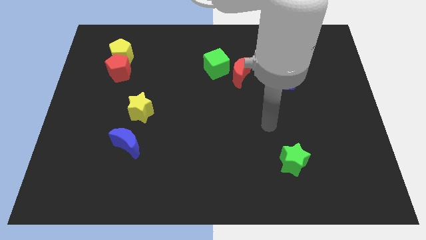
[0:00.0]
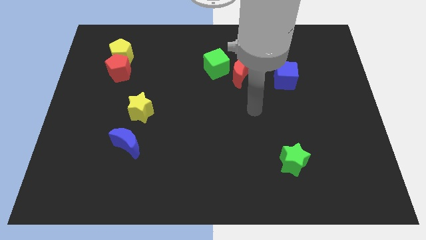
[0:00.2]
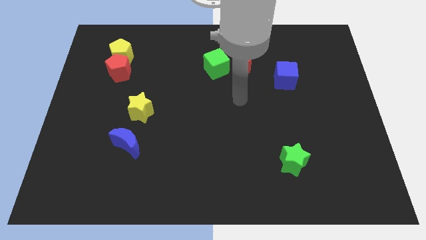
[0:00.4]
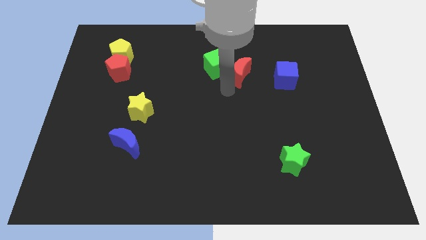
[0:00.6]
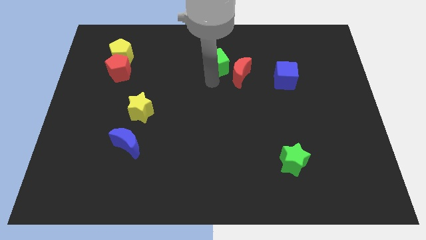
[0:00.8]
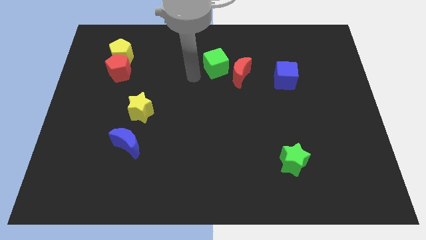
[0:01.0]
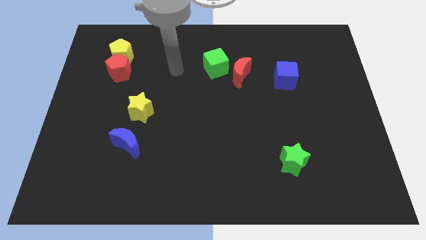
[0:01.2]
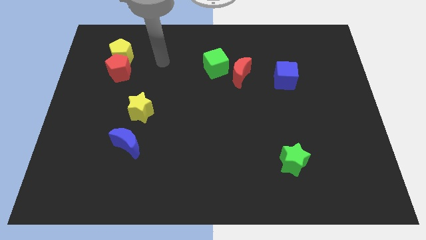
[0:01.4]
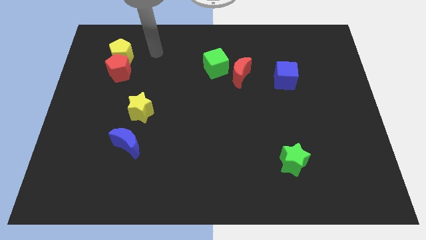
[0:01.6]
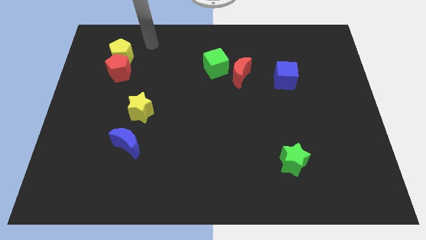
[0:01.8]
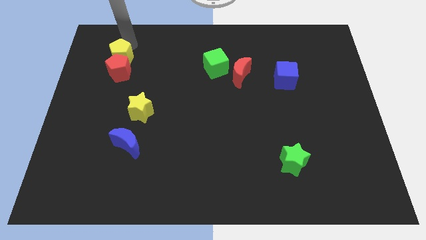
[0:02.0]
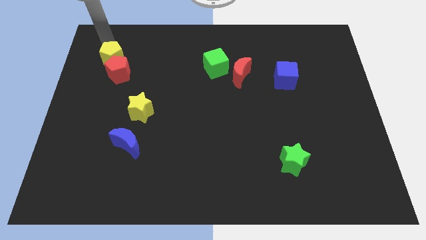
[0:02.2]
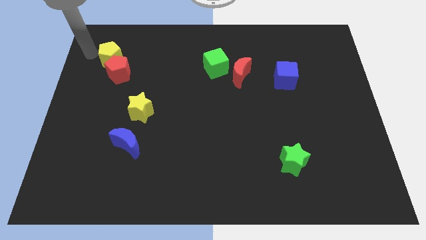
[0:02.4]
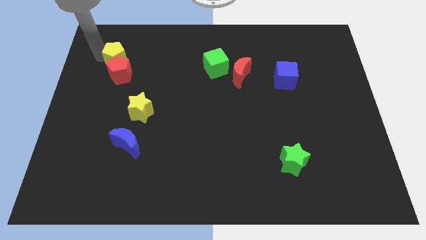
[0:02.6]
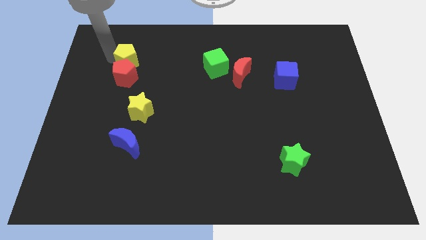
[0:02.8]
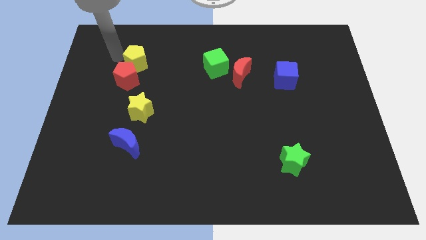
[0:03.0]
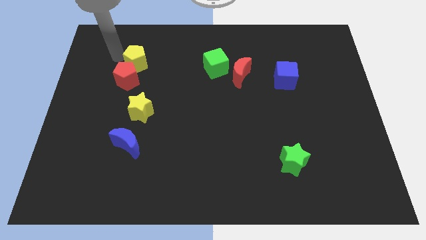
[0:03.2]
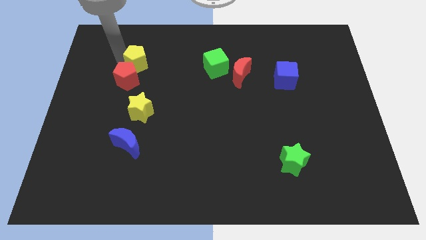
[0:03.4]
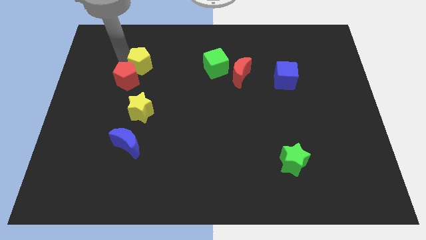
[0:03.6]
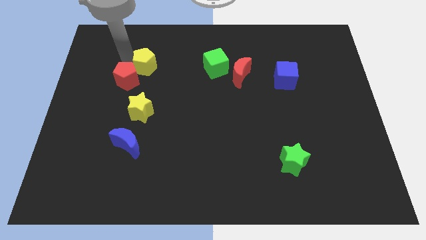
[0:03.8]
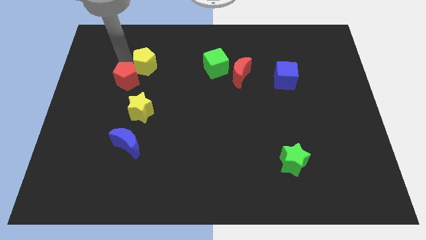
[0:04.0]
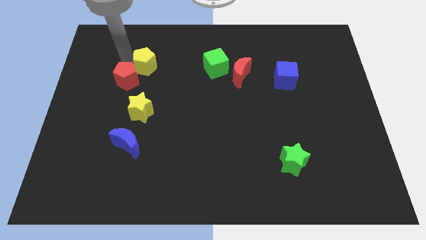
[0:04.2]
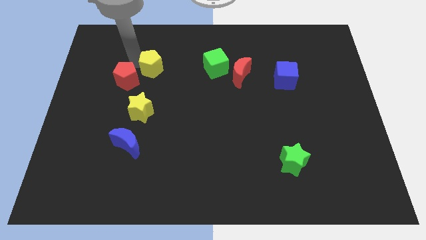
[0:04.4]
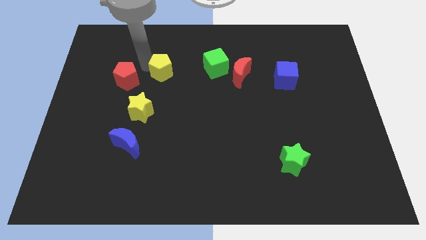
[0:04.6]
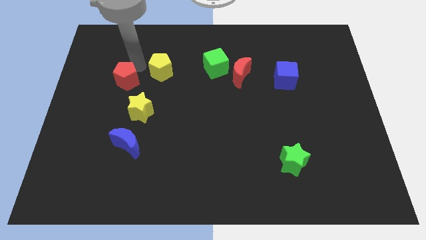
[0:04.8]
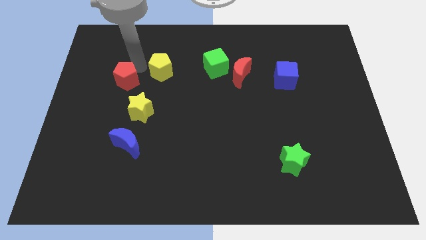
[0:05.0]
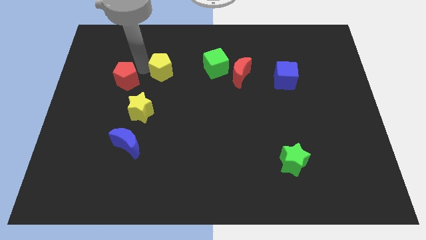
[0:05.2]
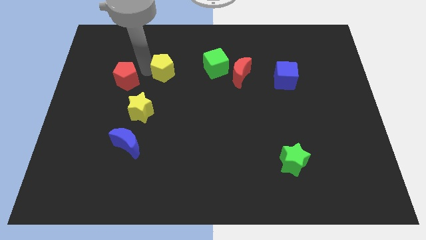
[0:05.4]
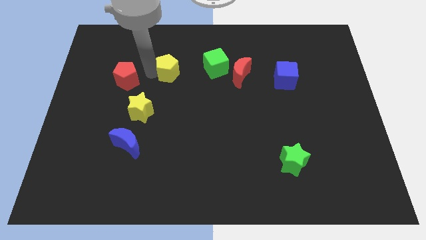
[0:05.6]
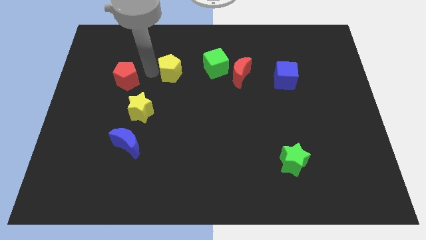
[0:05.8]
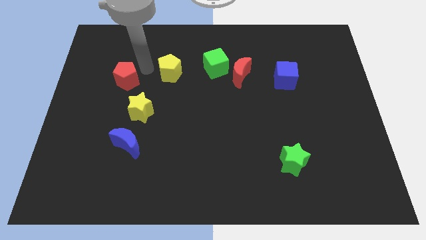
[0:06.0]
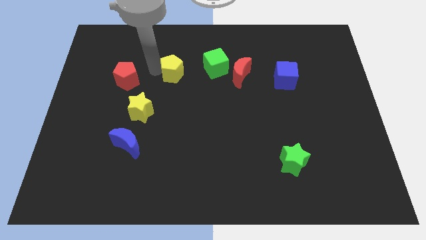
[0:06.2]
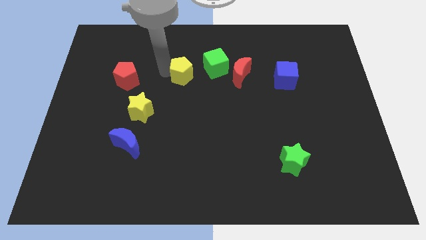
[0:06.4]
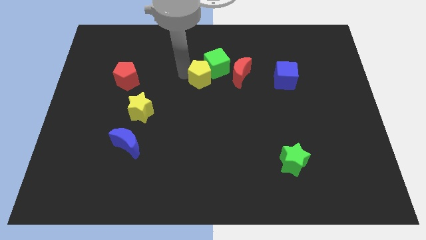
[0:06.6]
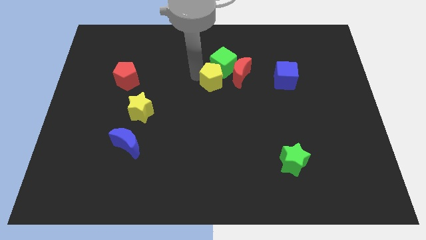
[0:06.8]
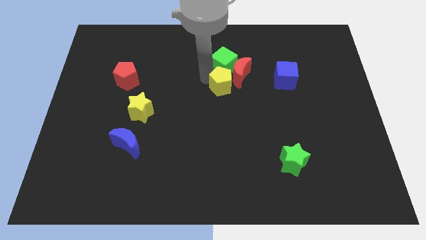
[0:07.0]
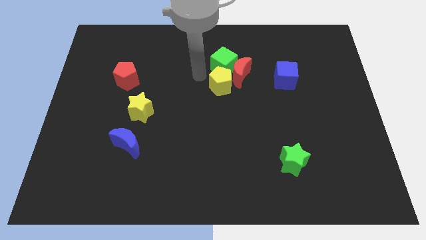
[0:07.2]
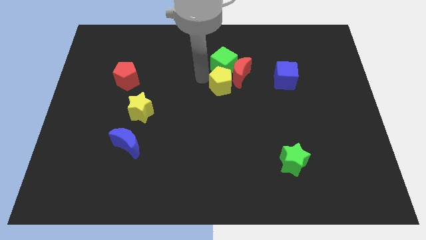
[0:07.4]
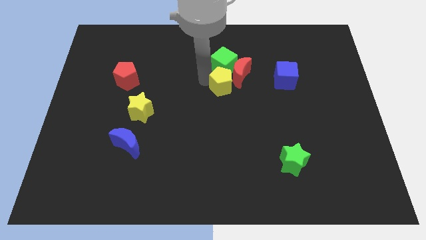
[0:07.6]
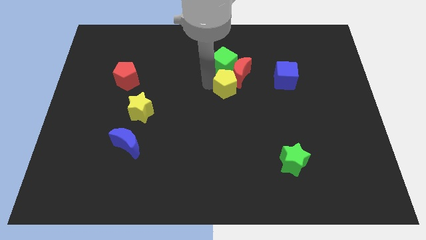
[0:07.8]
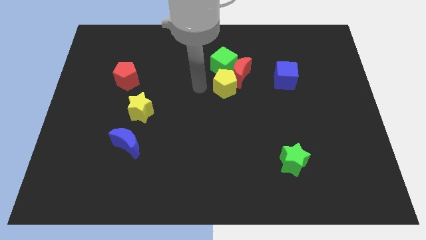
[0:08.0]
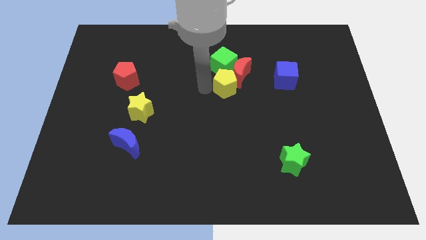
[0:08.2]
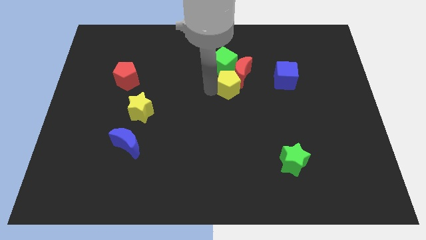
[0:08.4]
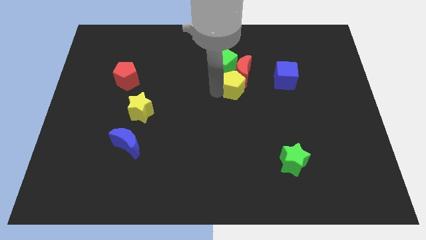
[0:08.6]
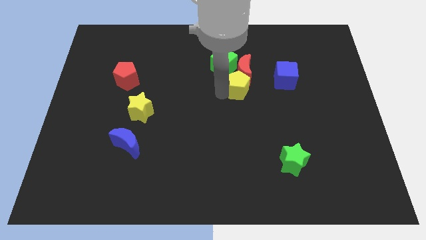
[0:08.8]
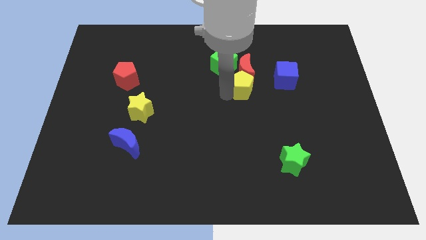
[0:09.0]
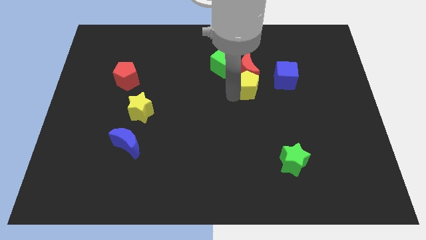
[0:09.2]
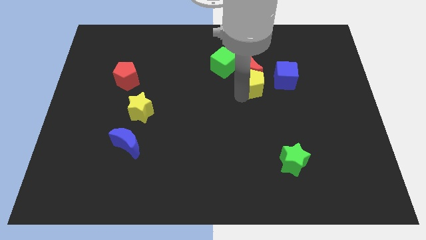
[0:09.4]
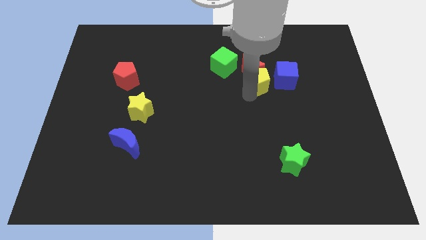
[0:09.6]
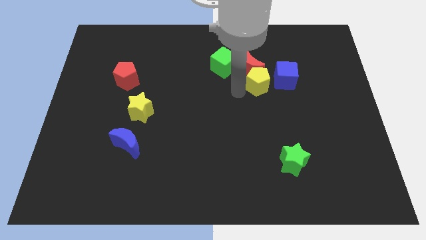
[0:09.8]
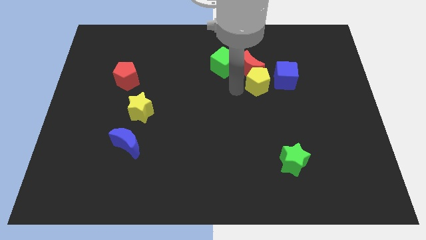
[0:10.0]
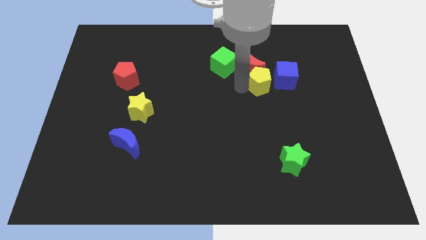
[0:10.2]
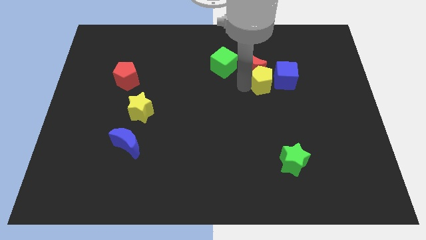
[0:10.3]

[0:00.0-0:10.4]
move the yellow pentagon close to the blue cube

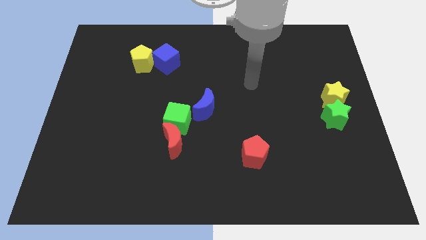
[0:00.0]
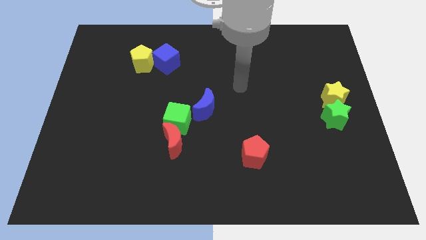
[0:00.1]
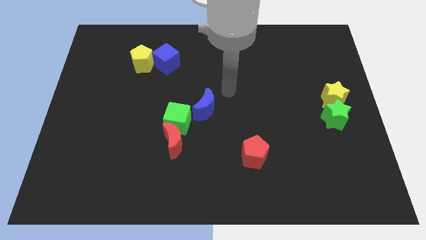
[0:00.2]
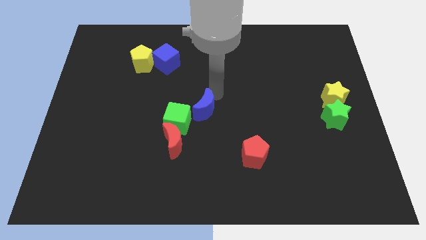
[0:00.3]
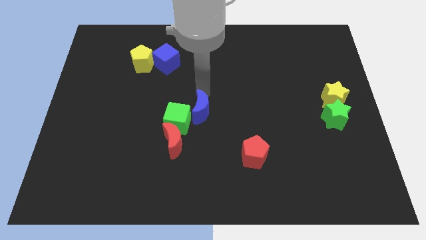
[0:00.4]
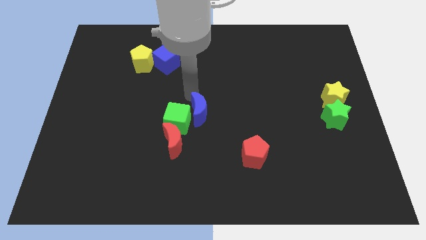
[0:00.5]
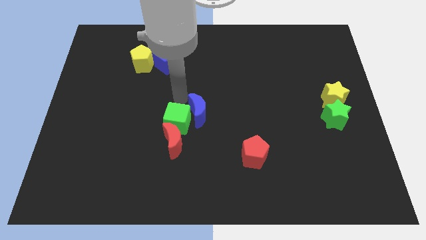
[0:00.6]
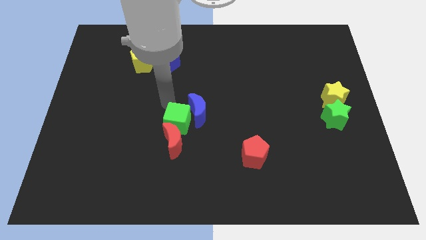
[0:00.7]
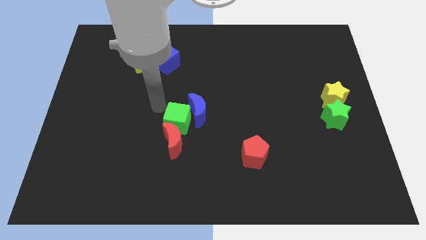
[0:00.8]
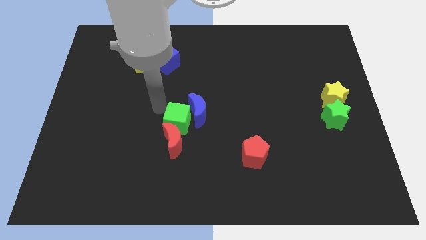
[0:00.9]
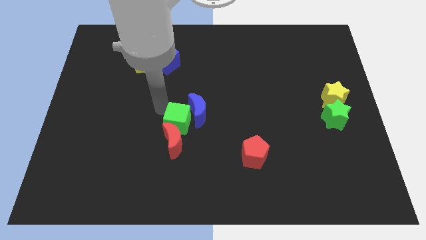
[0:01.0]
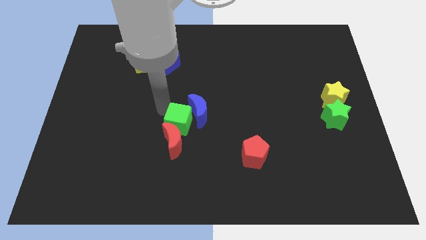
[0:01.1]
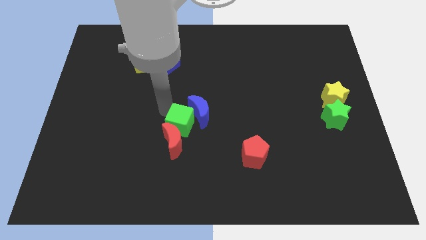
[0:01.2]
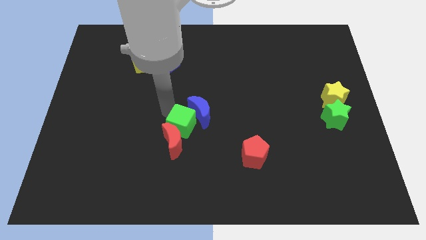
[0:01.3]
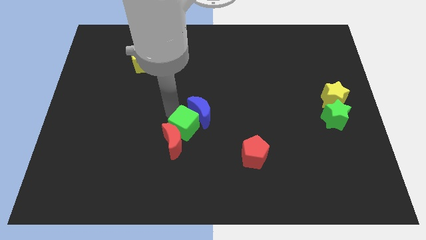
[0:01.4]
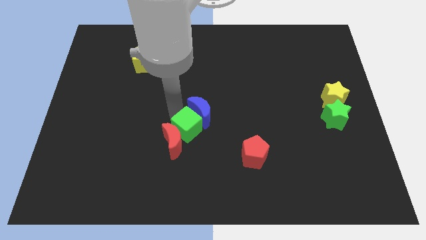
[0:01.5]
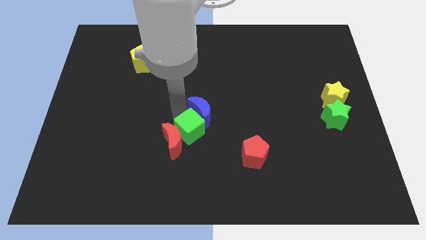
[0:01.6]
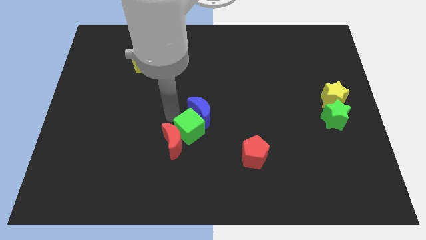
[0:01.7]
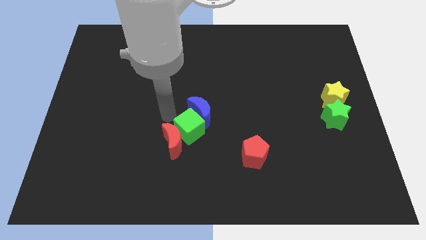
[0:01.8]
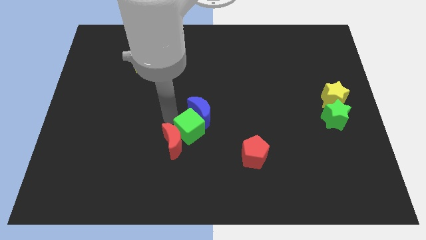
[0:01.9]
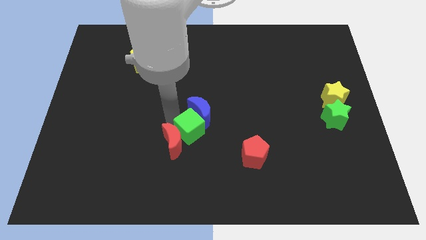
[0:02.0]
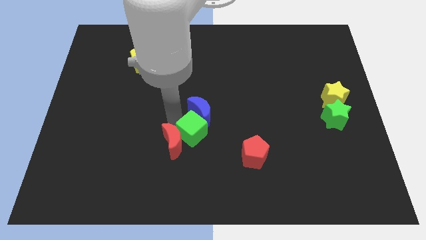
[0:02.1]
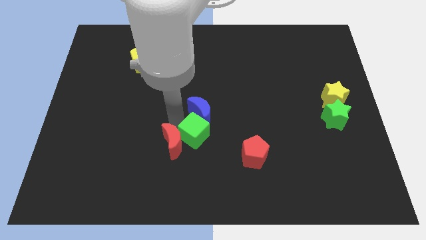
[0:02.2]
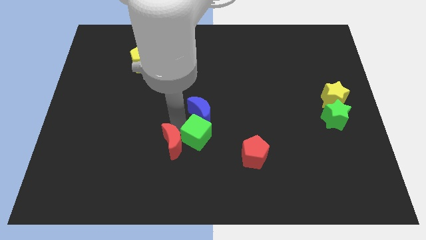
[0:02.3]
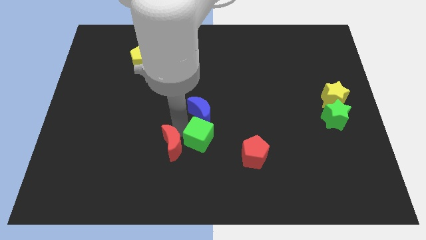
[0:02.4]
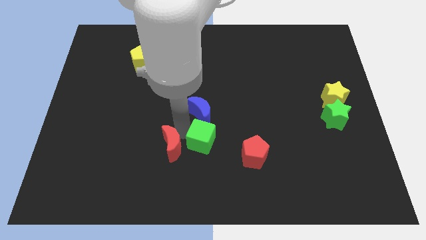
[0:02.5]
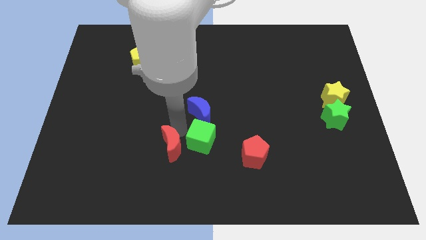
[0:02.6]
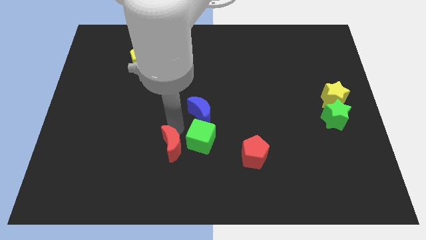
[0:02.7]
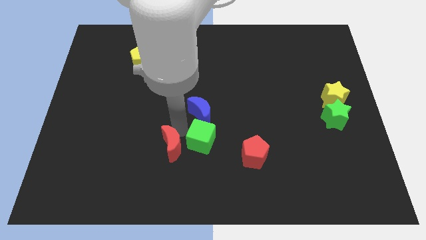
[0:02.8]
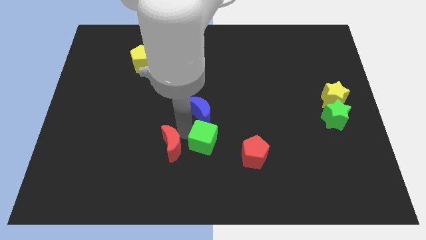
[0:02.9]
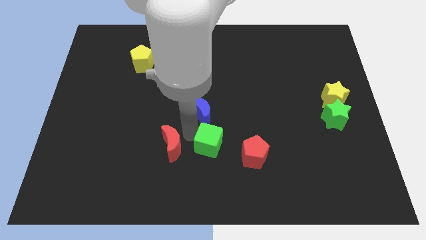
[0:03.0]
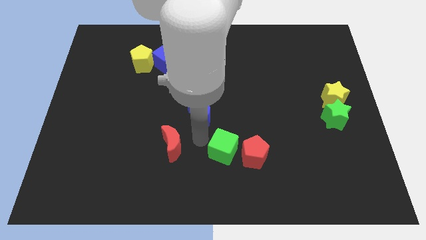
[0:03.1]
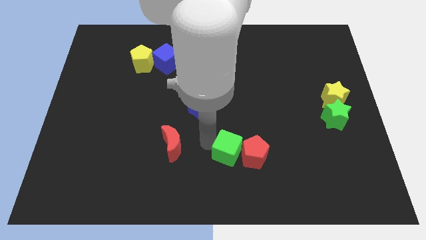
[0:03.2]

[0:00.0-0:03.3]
push the green cube towards the red pentagon
